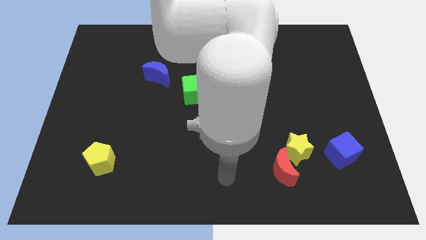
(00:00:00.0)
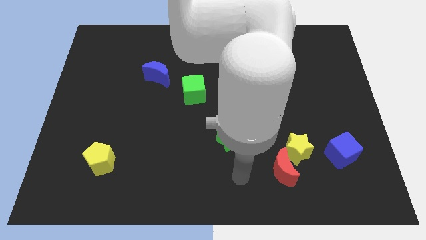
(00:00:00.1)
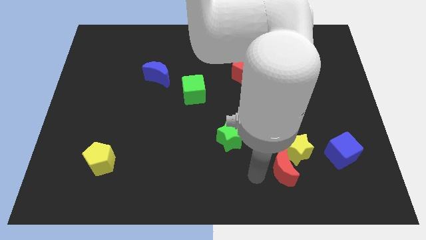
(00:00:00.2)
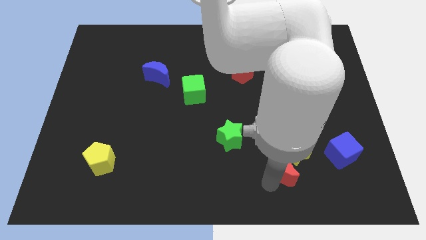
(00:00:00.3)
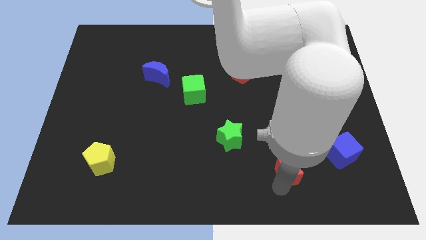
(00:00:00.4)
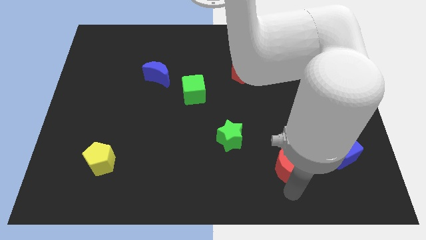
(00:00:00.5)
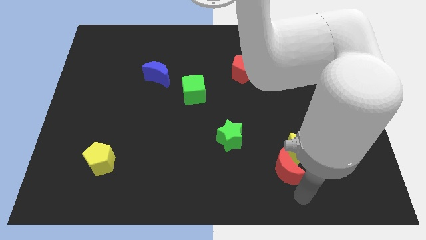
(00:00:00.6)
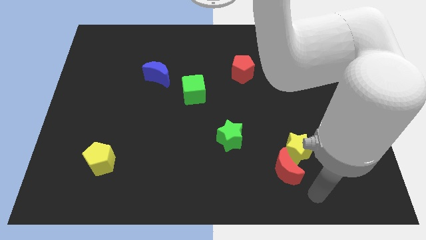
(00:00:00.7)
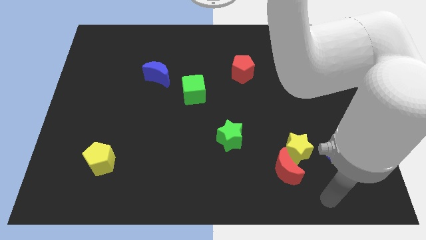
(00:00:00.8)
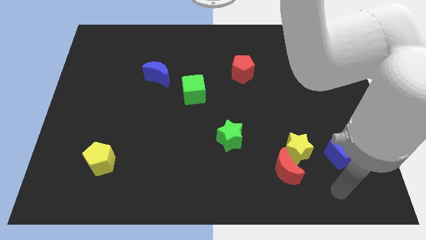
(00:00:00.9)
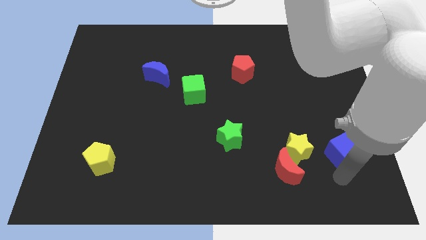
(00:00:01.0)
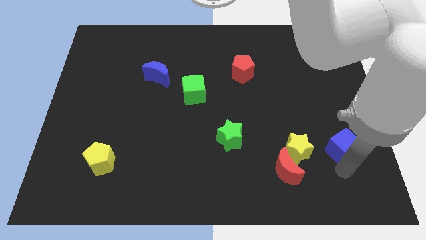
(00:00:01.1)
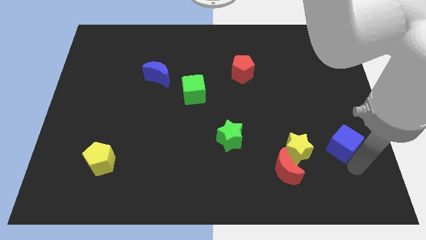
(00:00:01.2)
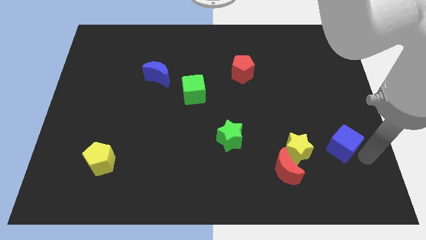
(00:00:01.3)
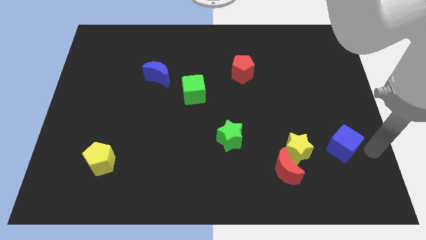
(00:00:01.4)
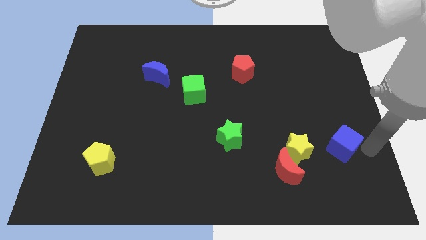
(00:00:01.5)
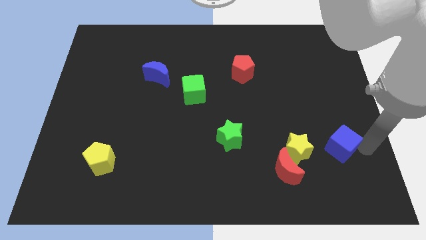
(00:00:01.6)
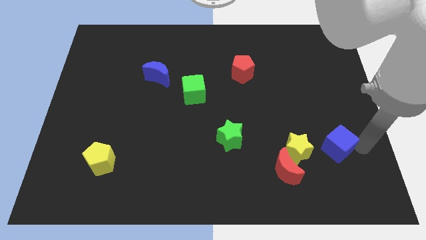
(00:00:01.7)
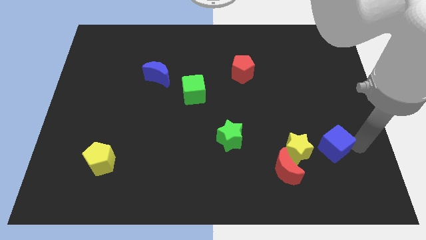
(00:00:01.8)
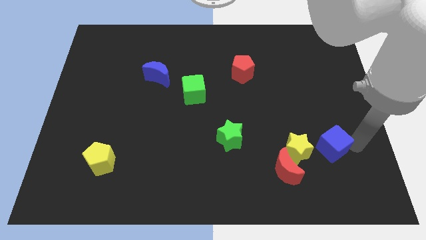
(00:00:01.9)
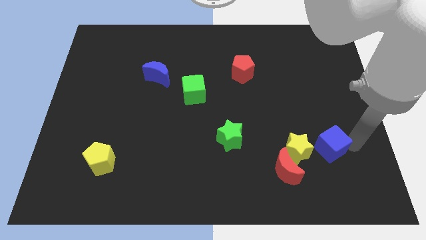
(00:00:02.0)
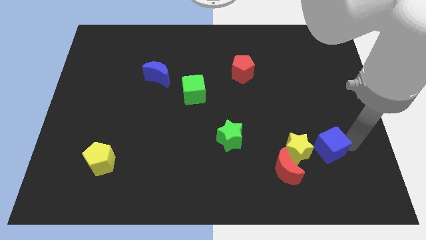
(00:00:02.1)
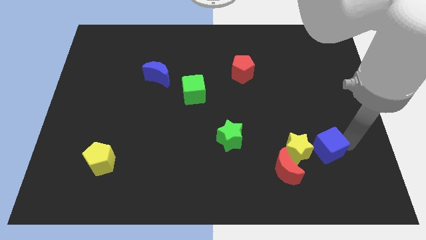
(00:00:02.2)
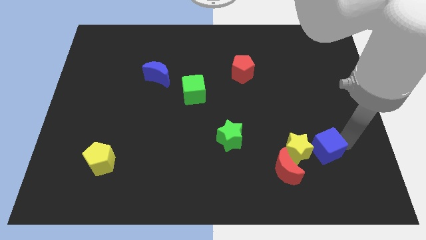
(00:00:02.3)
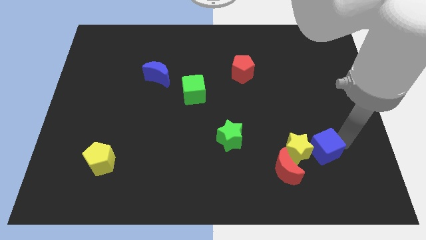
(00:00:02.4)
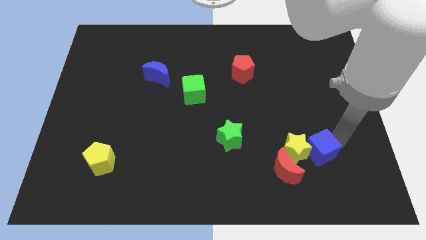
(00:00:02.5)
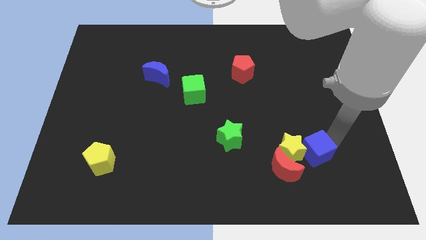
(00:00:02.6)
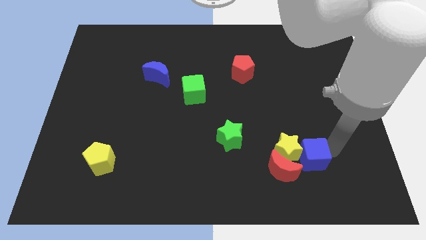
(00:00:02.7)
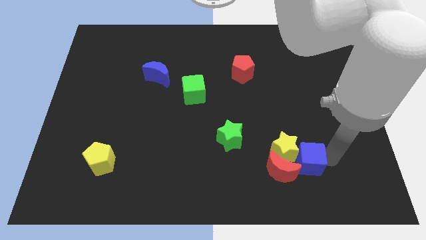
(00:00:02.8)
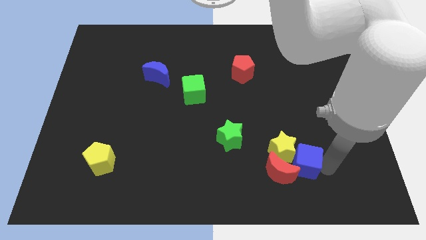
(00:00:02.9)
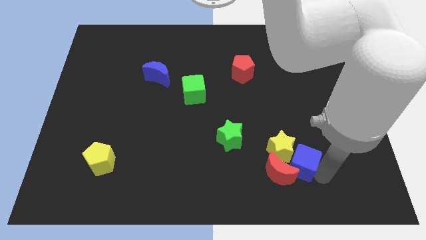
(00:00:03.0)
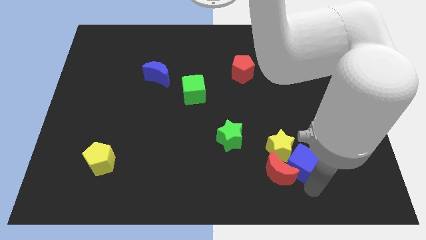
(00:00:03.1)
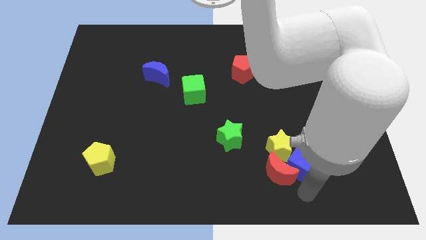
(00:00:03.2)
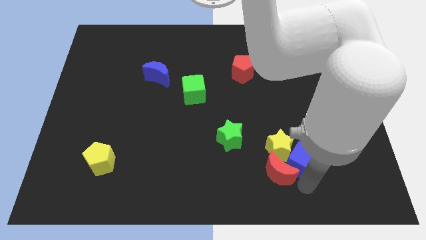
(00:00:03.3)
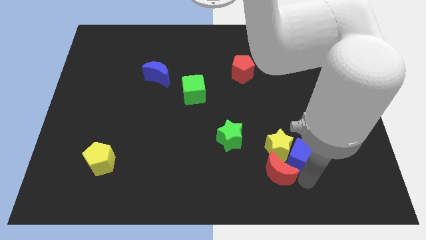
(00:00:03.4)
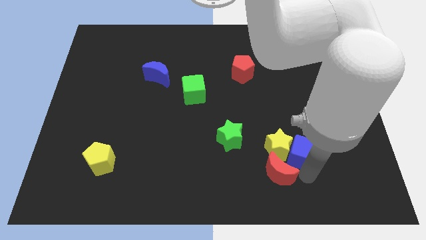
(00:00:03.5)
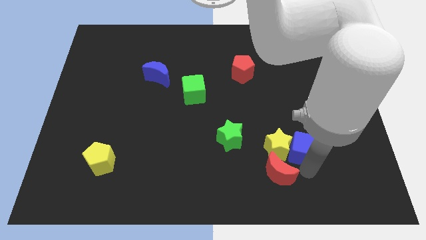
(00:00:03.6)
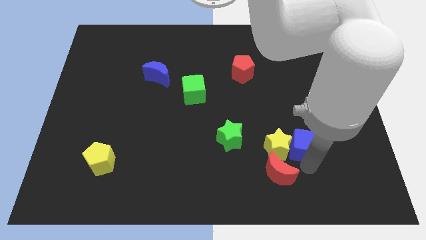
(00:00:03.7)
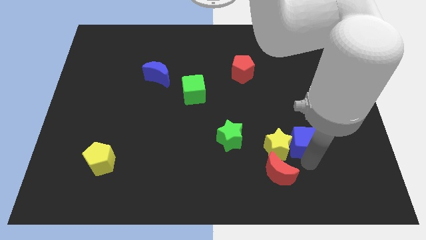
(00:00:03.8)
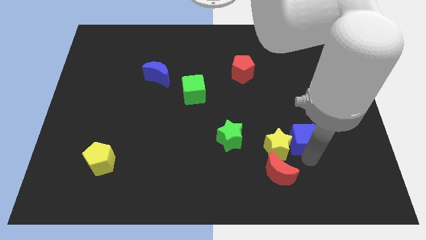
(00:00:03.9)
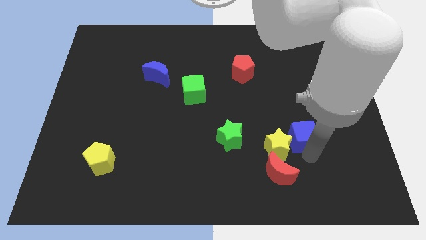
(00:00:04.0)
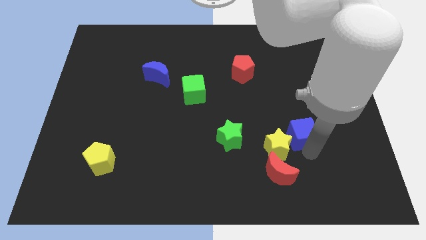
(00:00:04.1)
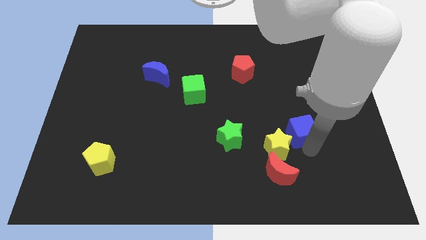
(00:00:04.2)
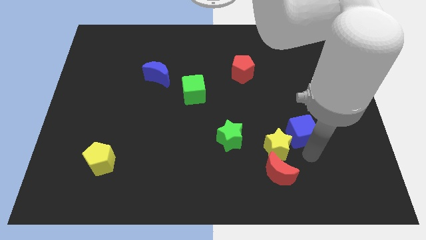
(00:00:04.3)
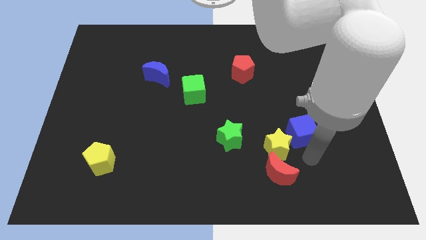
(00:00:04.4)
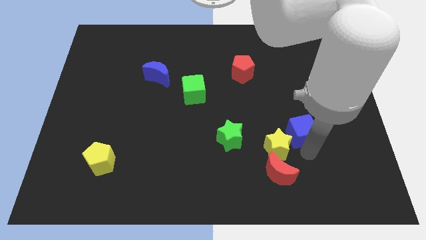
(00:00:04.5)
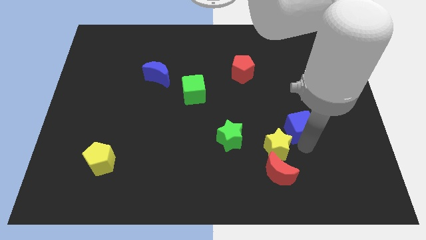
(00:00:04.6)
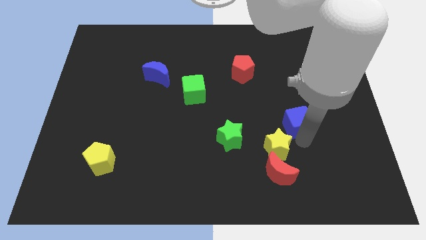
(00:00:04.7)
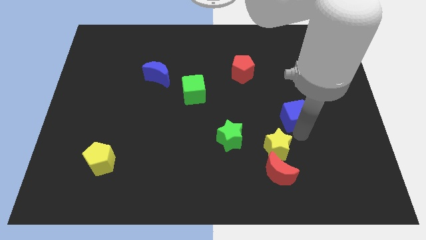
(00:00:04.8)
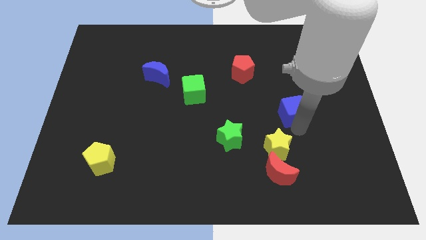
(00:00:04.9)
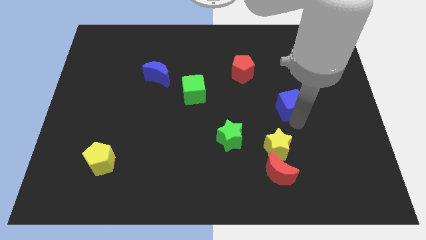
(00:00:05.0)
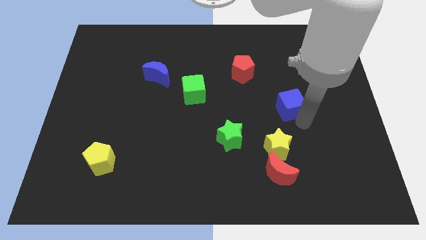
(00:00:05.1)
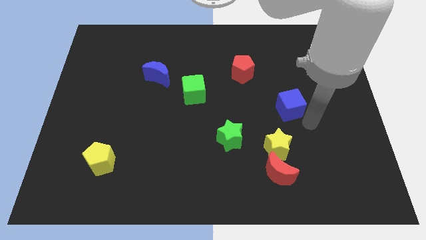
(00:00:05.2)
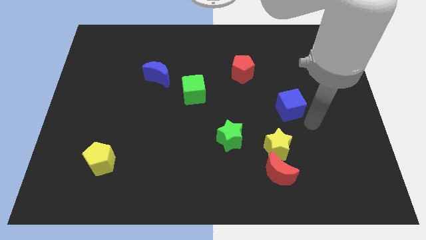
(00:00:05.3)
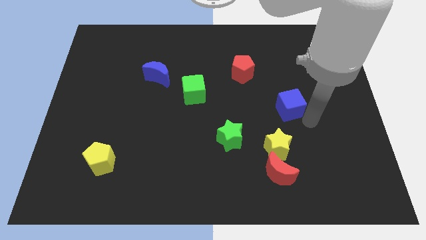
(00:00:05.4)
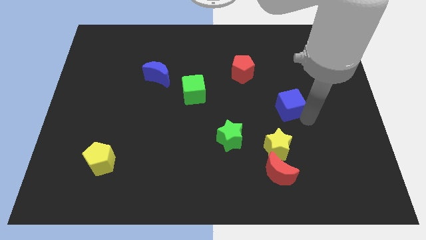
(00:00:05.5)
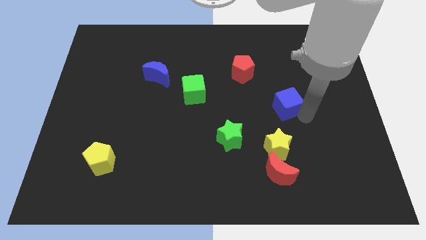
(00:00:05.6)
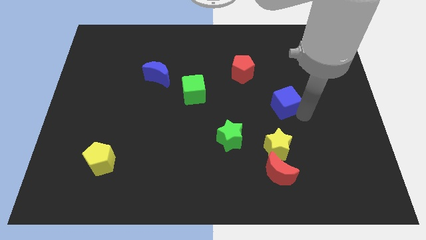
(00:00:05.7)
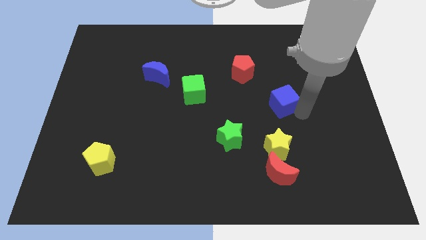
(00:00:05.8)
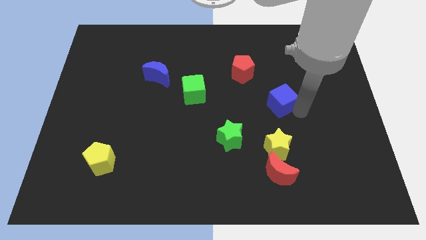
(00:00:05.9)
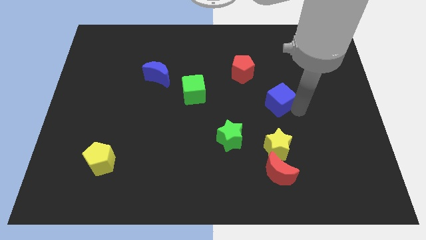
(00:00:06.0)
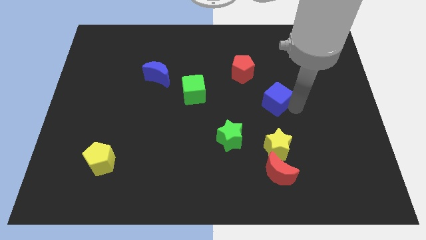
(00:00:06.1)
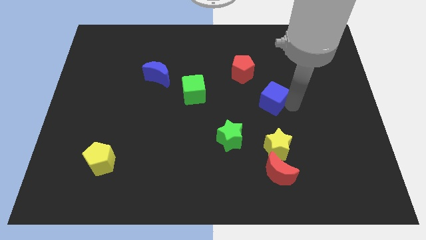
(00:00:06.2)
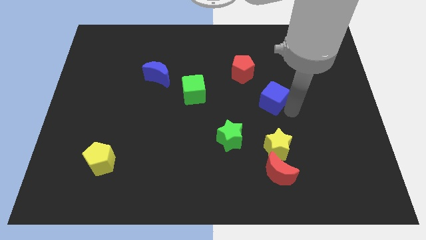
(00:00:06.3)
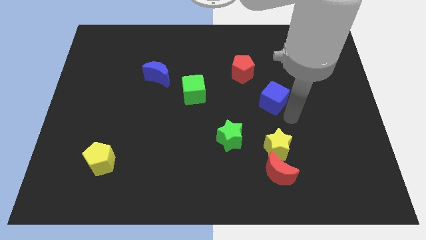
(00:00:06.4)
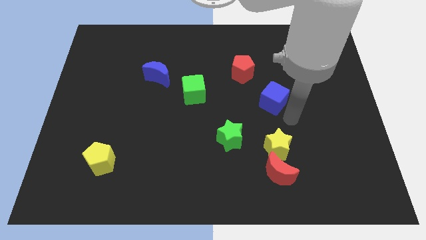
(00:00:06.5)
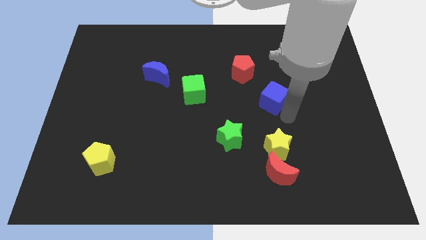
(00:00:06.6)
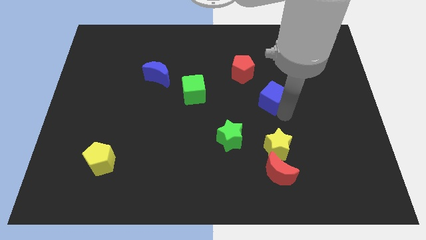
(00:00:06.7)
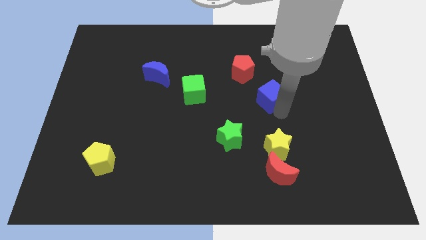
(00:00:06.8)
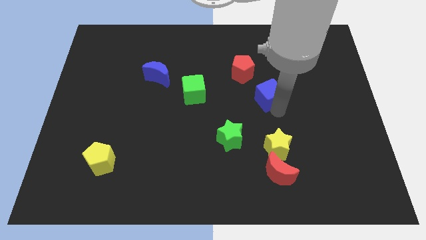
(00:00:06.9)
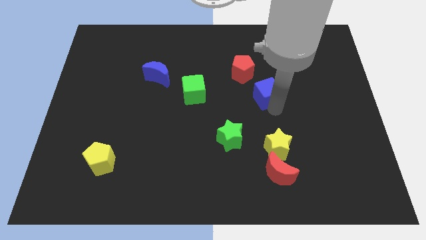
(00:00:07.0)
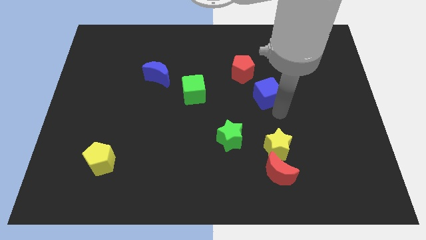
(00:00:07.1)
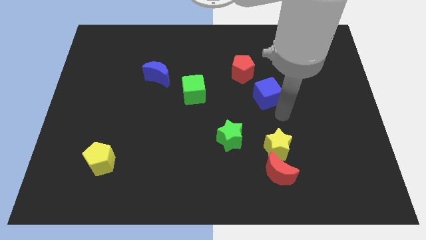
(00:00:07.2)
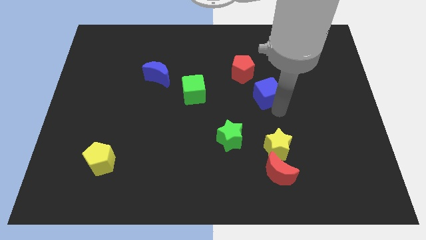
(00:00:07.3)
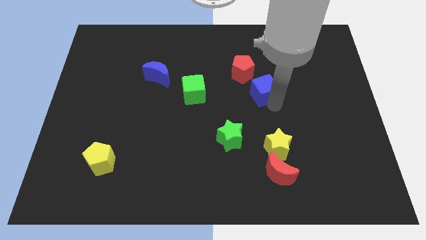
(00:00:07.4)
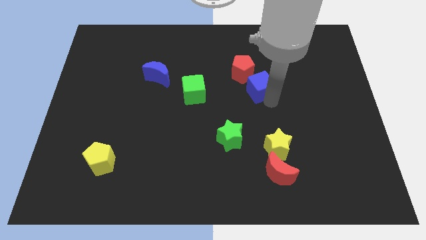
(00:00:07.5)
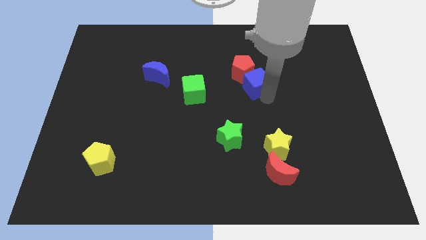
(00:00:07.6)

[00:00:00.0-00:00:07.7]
move the blue cube to the red pentagon
